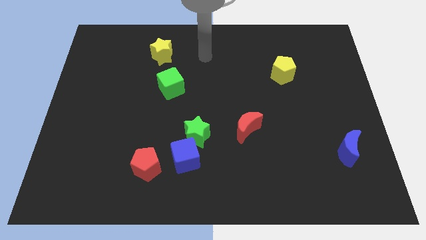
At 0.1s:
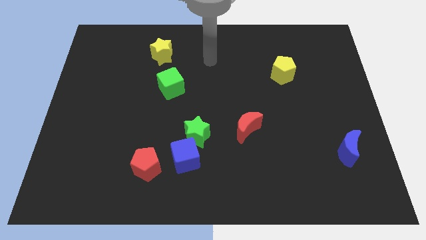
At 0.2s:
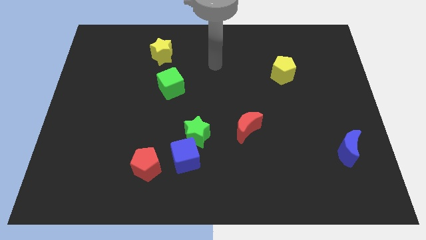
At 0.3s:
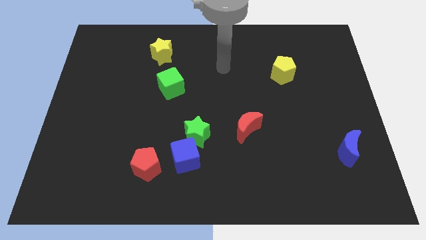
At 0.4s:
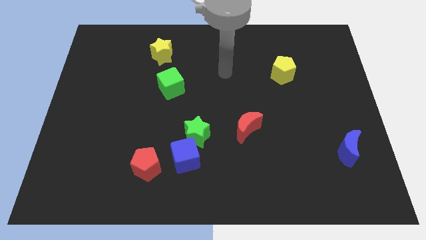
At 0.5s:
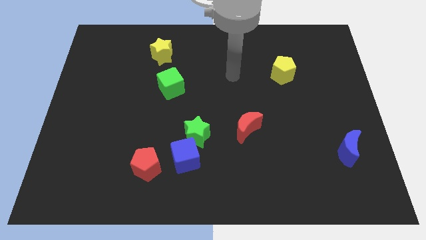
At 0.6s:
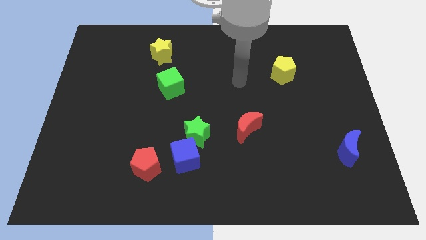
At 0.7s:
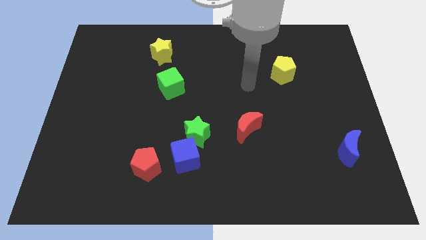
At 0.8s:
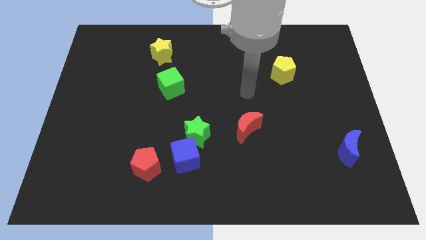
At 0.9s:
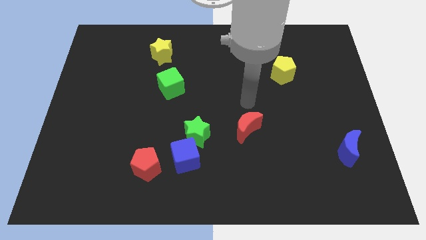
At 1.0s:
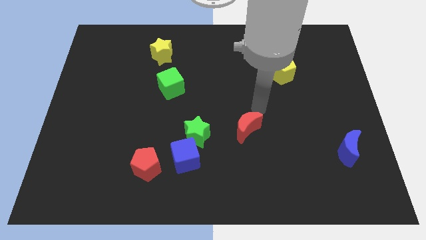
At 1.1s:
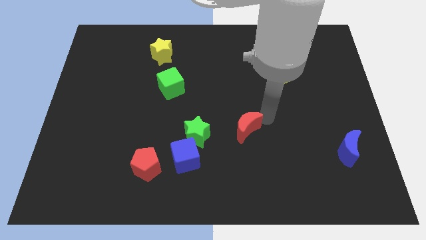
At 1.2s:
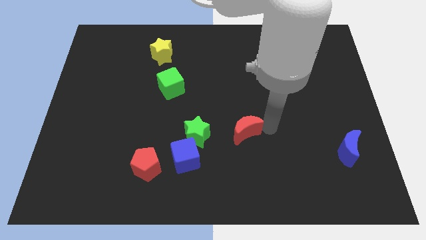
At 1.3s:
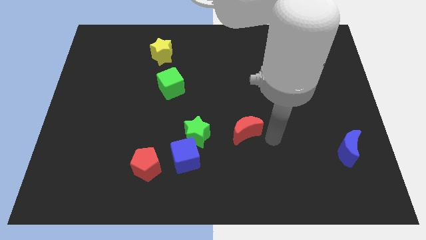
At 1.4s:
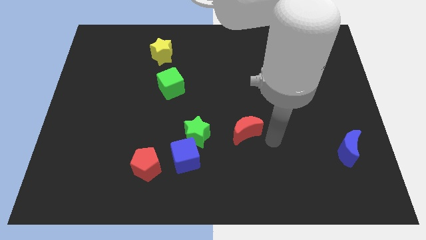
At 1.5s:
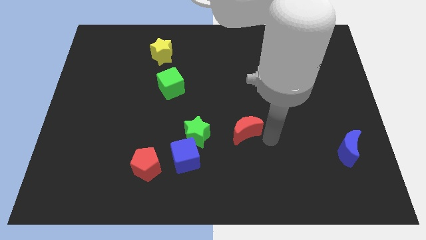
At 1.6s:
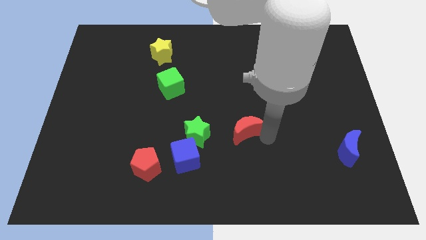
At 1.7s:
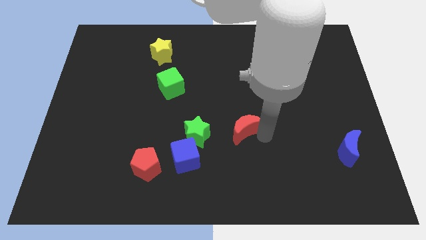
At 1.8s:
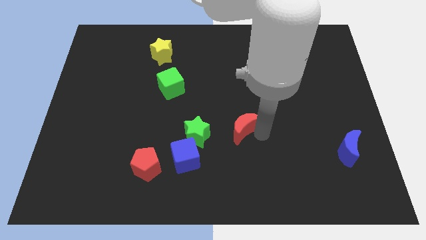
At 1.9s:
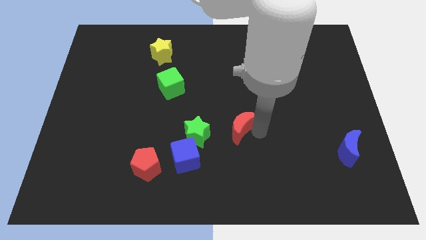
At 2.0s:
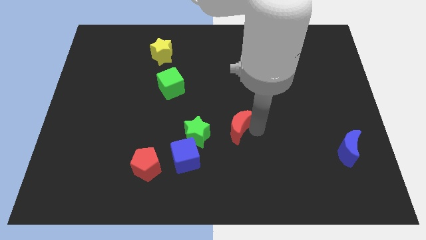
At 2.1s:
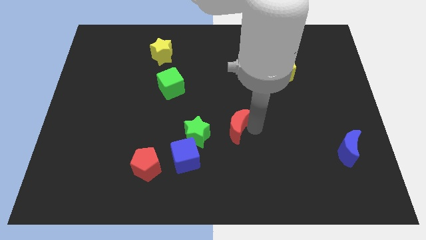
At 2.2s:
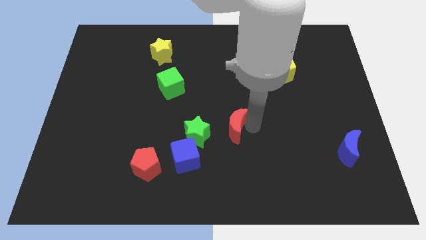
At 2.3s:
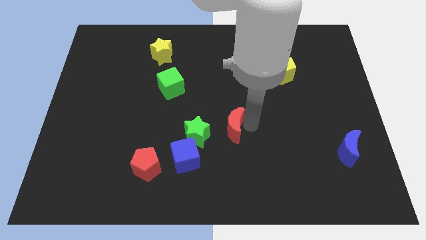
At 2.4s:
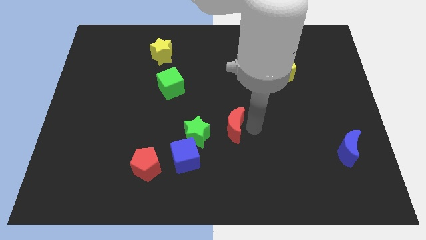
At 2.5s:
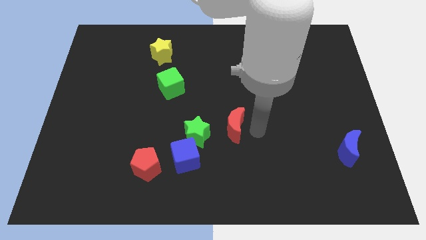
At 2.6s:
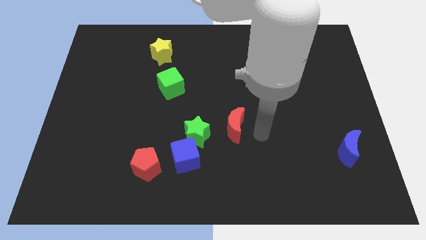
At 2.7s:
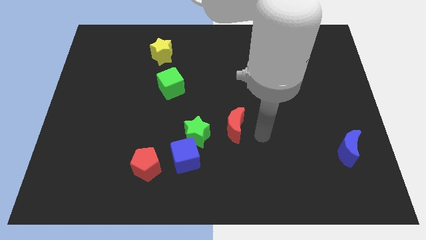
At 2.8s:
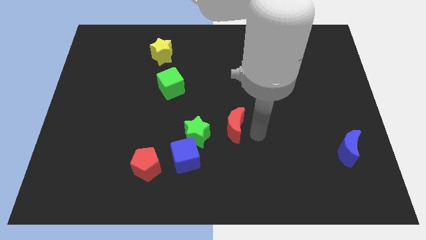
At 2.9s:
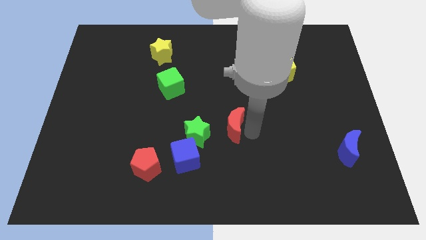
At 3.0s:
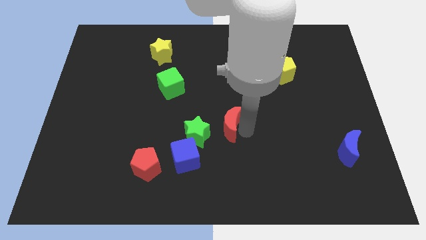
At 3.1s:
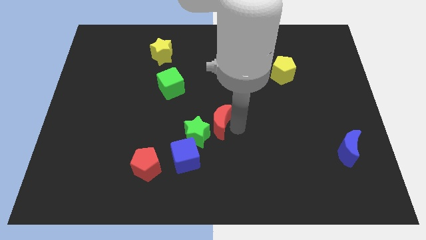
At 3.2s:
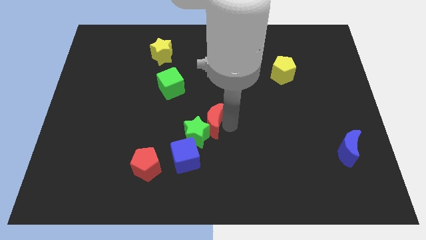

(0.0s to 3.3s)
slide the red moon to the left a little

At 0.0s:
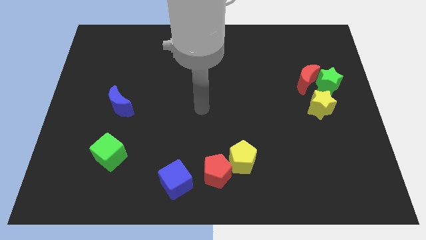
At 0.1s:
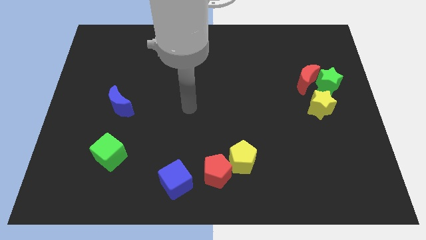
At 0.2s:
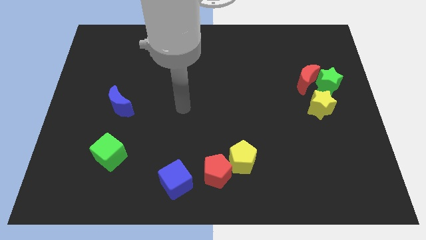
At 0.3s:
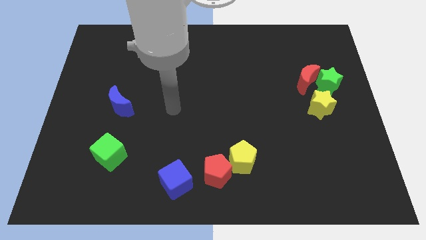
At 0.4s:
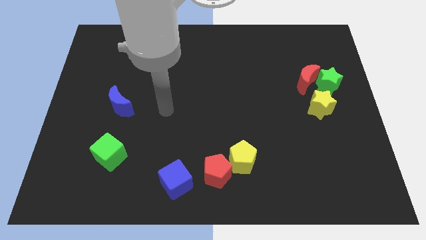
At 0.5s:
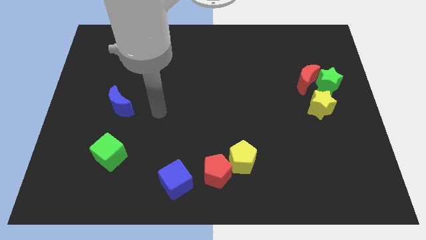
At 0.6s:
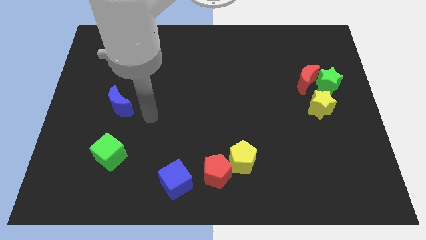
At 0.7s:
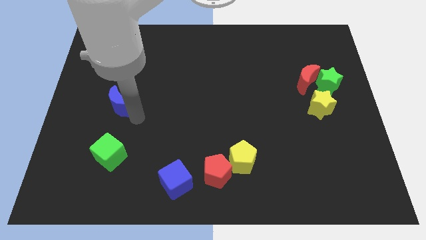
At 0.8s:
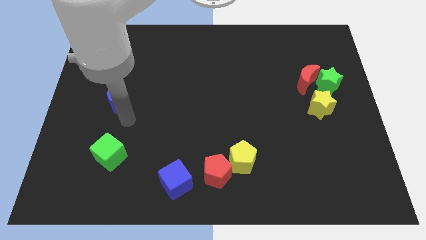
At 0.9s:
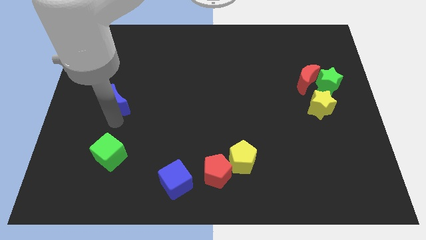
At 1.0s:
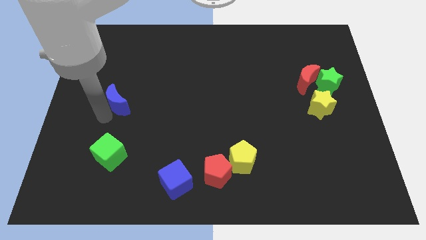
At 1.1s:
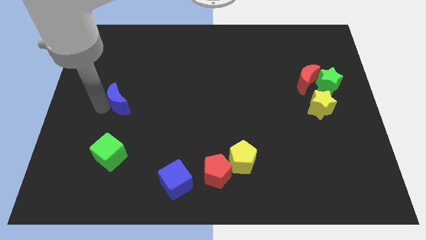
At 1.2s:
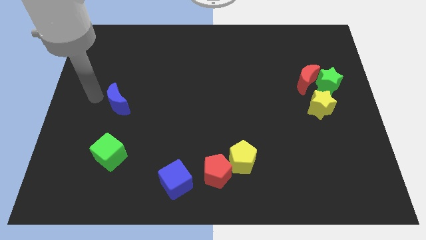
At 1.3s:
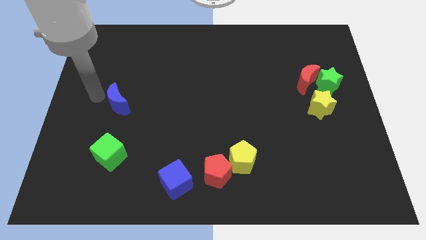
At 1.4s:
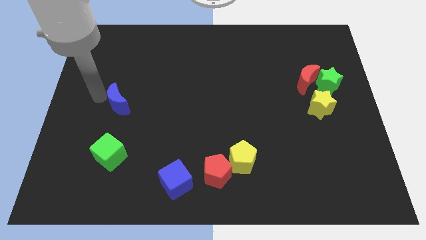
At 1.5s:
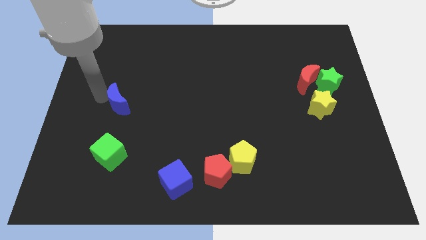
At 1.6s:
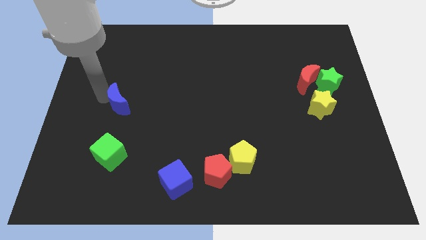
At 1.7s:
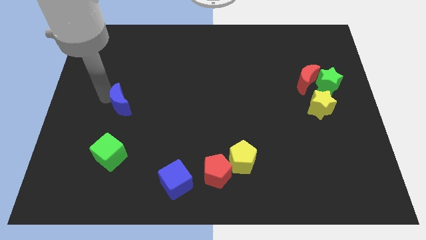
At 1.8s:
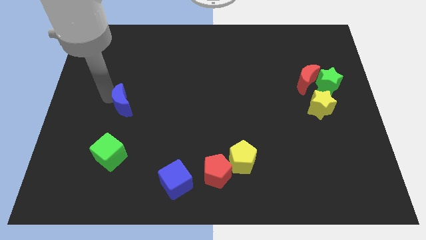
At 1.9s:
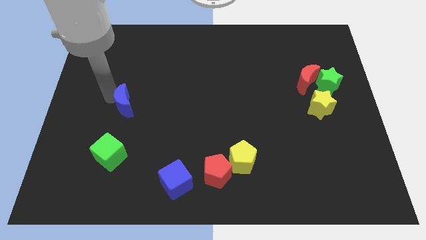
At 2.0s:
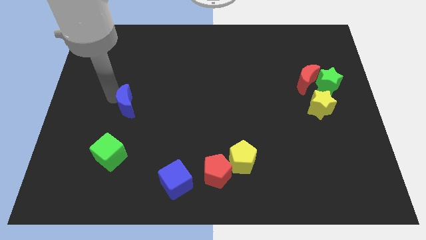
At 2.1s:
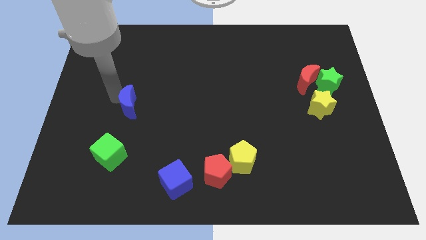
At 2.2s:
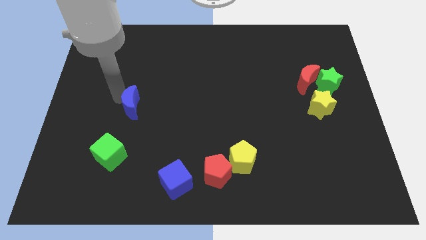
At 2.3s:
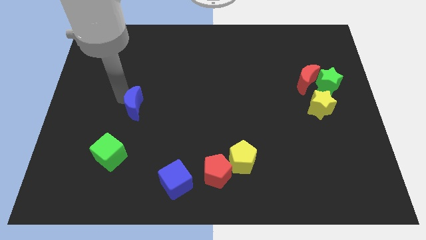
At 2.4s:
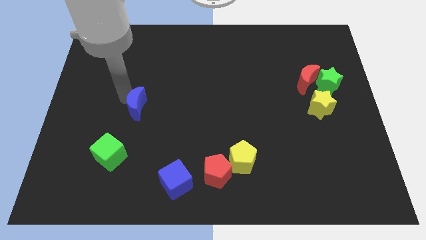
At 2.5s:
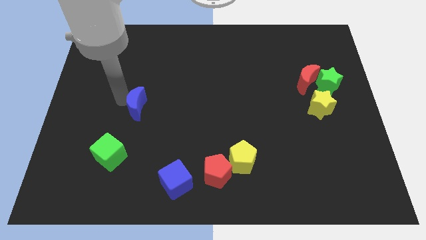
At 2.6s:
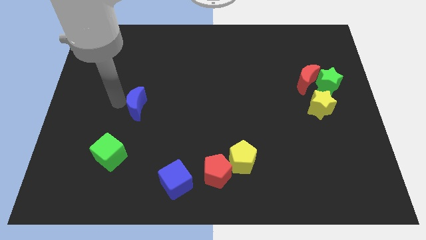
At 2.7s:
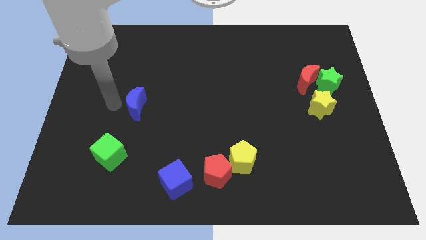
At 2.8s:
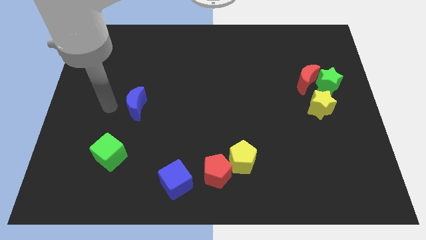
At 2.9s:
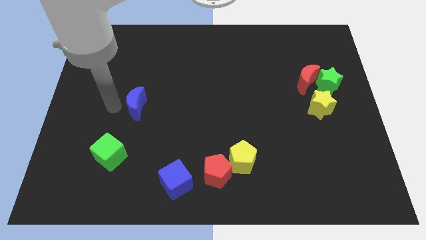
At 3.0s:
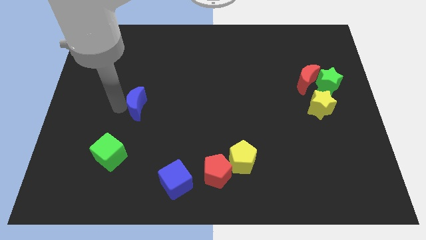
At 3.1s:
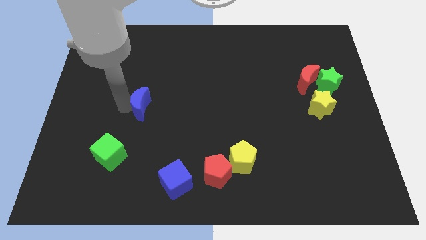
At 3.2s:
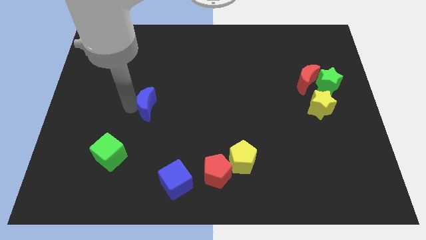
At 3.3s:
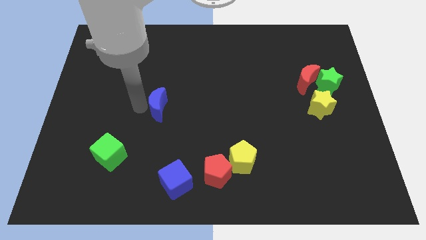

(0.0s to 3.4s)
slightly slide the blue moon right

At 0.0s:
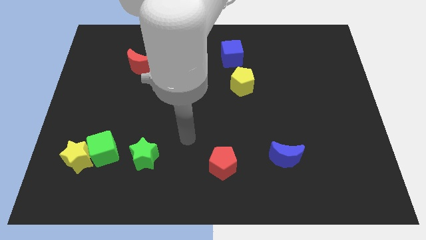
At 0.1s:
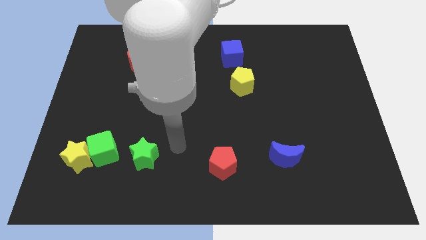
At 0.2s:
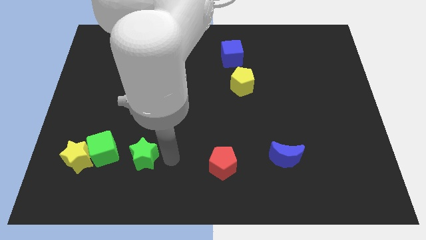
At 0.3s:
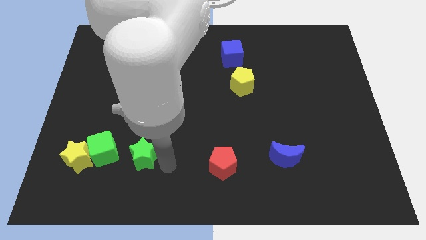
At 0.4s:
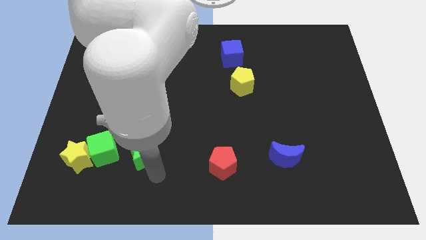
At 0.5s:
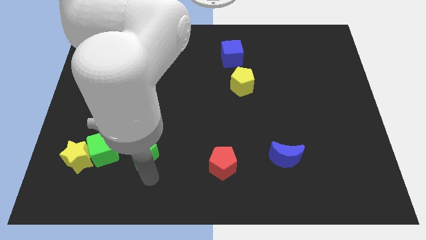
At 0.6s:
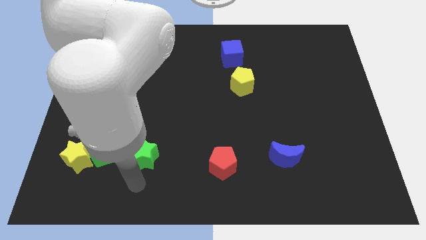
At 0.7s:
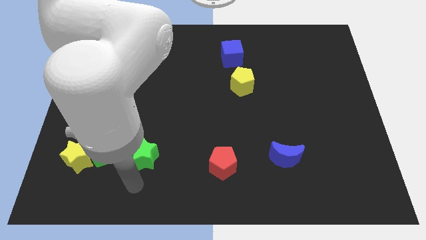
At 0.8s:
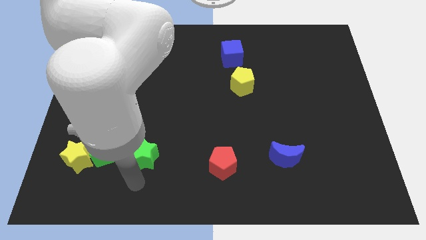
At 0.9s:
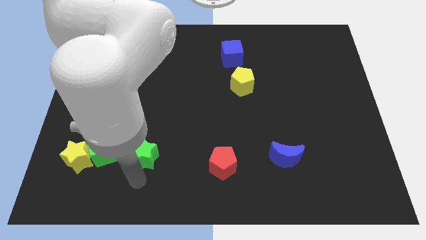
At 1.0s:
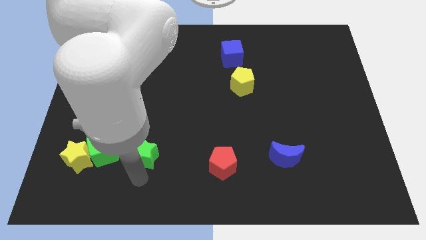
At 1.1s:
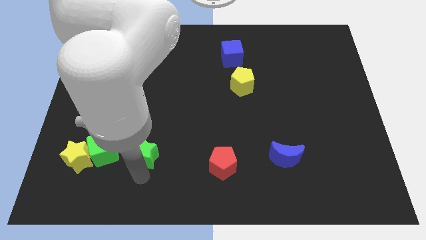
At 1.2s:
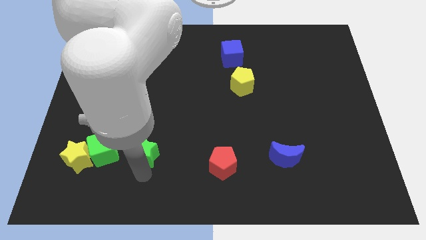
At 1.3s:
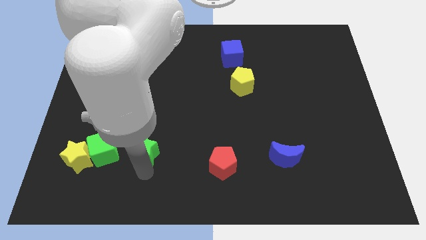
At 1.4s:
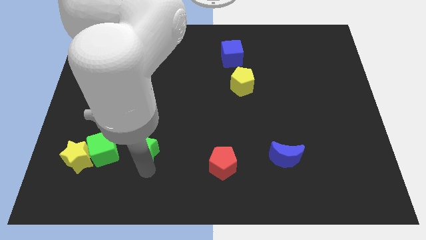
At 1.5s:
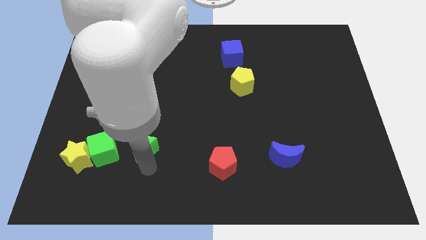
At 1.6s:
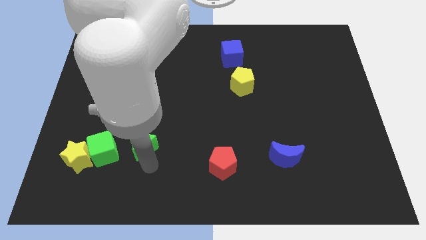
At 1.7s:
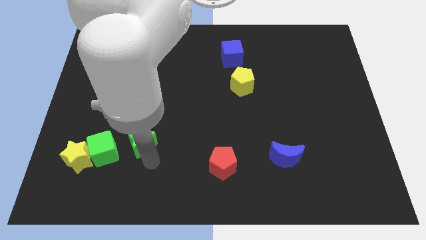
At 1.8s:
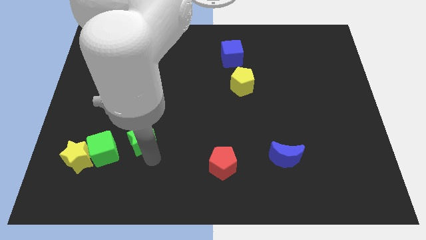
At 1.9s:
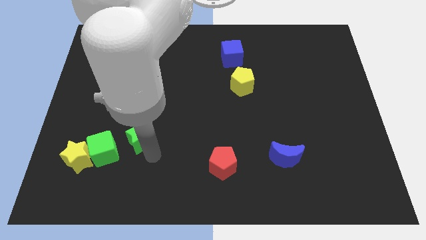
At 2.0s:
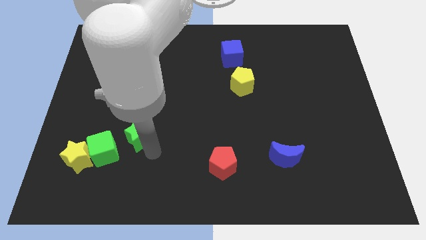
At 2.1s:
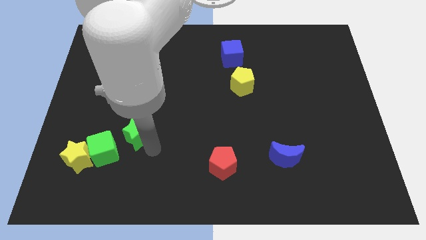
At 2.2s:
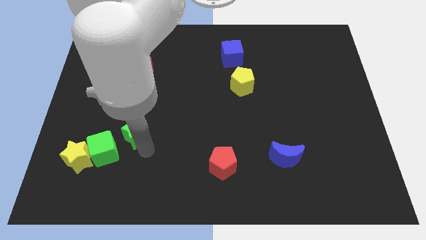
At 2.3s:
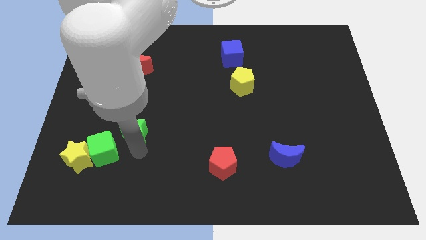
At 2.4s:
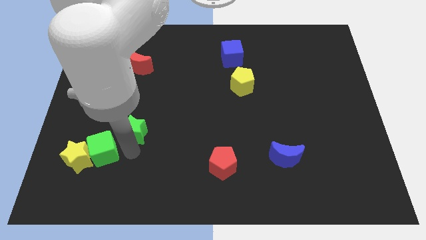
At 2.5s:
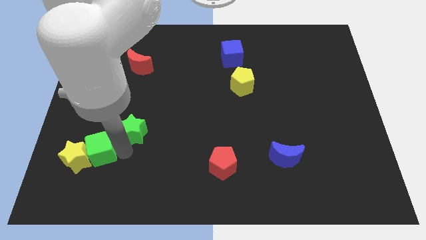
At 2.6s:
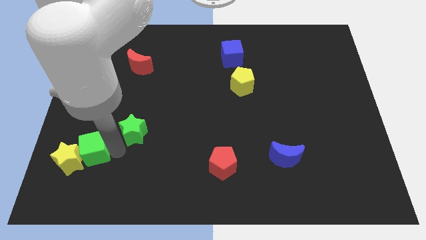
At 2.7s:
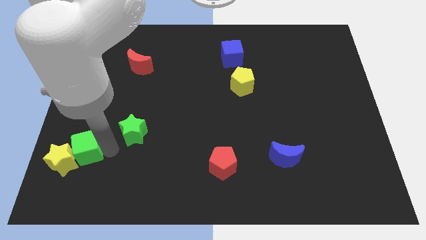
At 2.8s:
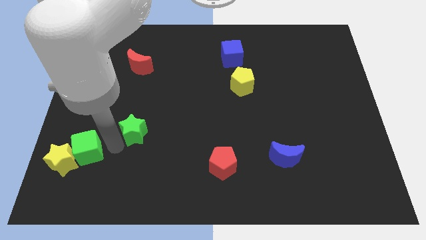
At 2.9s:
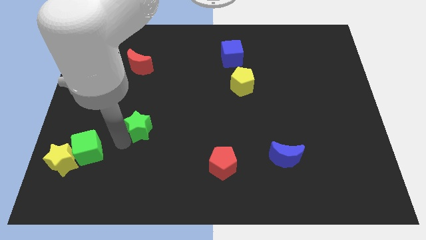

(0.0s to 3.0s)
slightly move the green star up
